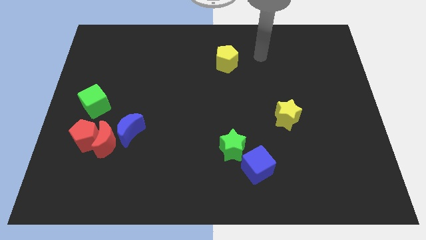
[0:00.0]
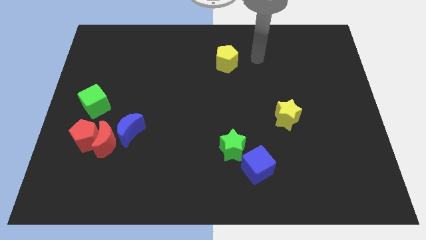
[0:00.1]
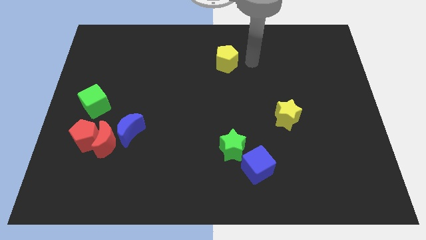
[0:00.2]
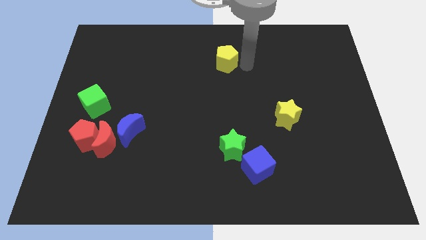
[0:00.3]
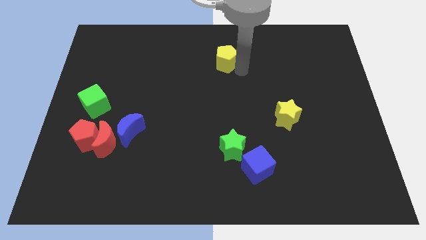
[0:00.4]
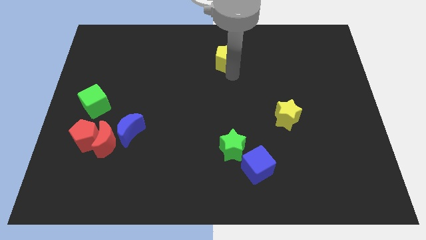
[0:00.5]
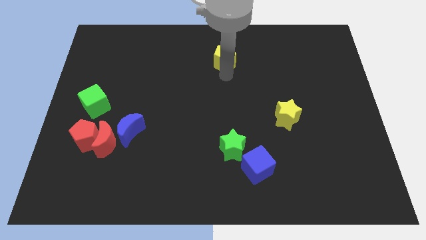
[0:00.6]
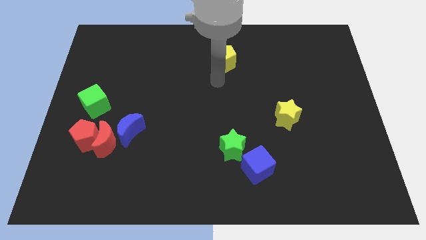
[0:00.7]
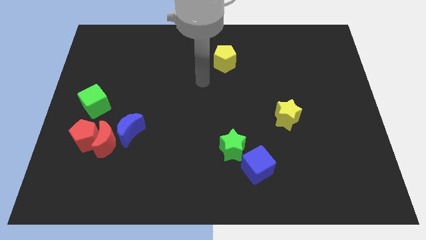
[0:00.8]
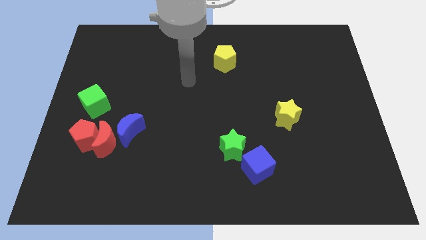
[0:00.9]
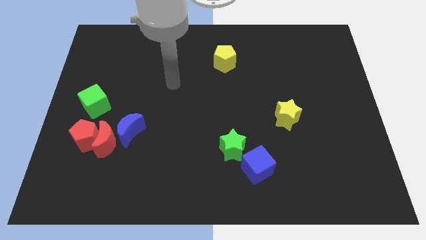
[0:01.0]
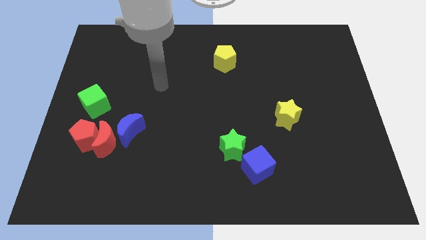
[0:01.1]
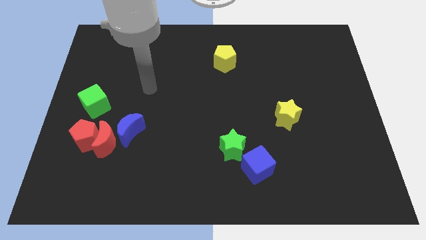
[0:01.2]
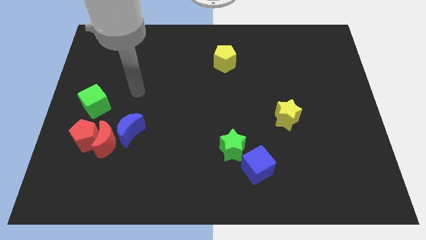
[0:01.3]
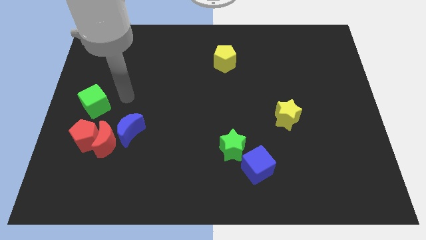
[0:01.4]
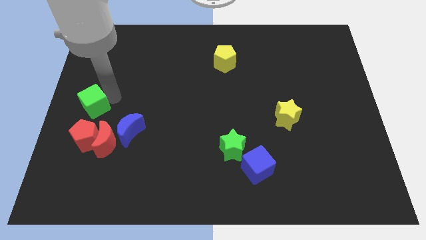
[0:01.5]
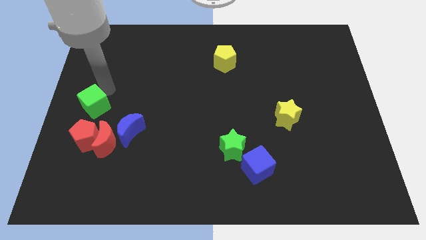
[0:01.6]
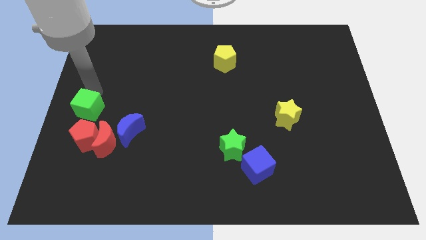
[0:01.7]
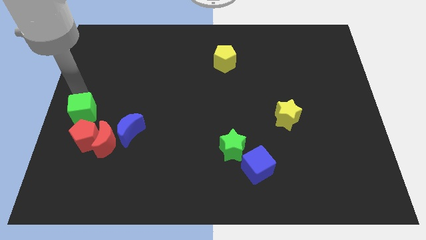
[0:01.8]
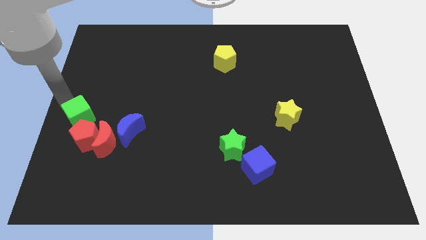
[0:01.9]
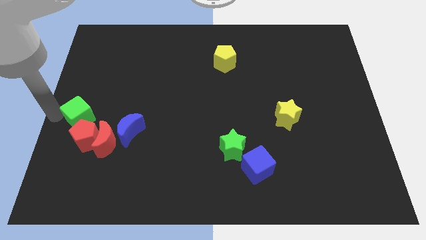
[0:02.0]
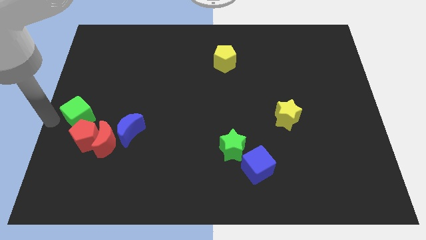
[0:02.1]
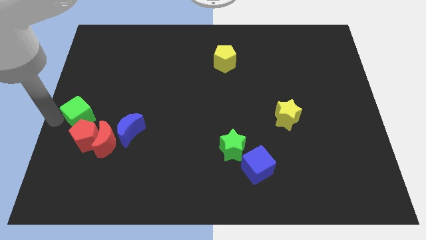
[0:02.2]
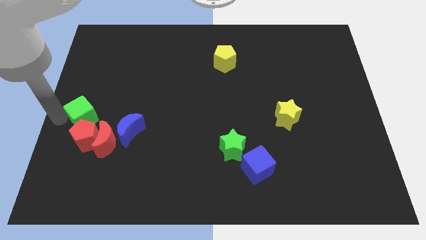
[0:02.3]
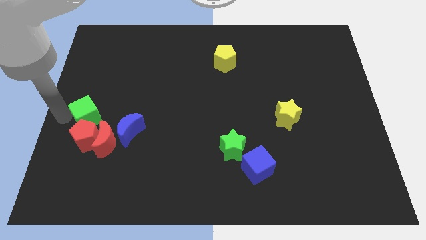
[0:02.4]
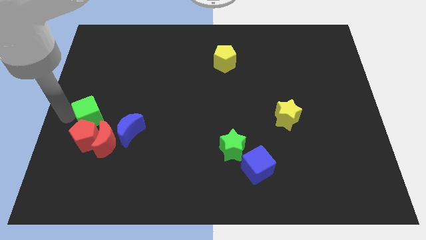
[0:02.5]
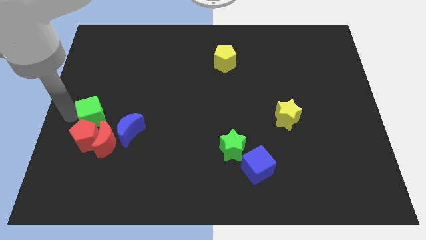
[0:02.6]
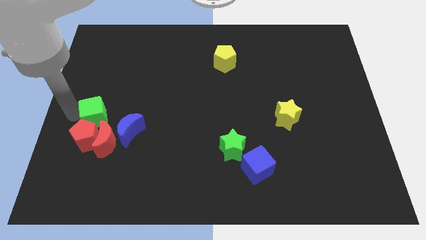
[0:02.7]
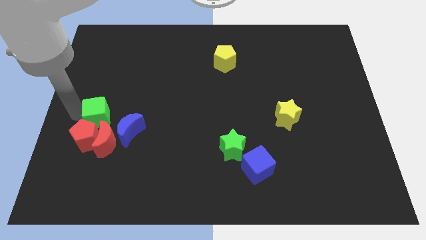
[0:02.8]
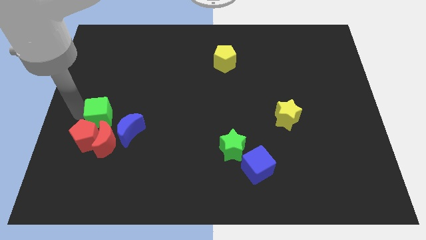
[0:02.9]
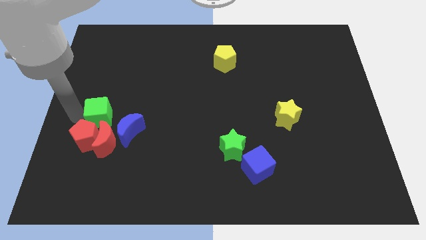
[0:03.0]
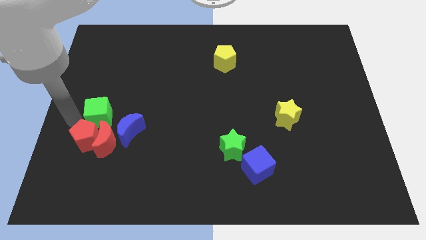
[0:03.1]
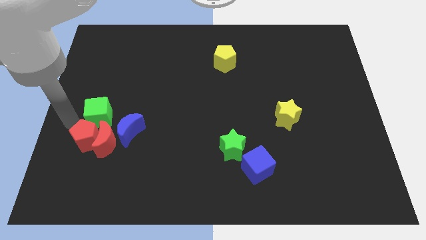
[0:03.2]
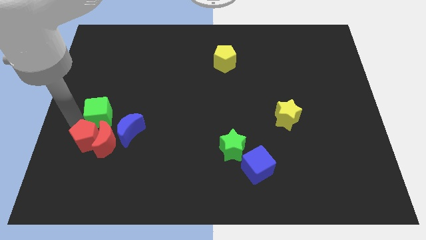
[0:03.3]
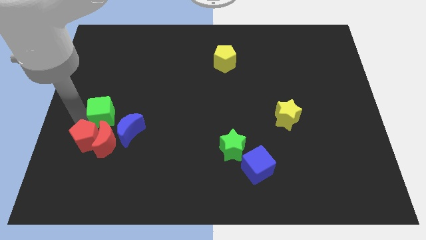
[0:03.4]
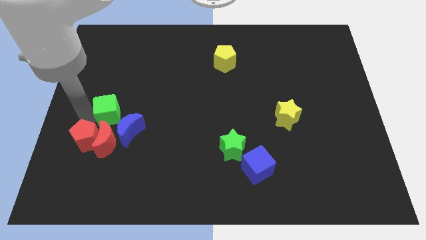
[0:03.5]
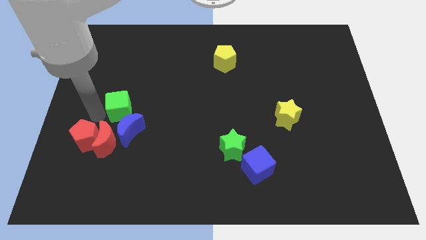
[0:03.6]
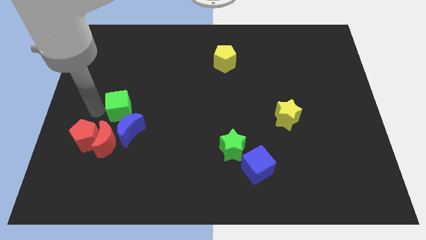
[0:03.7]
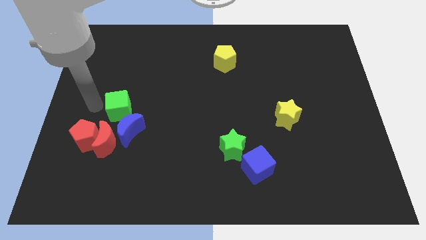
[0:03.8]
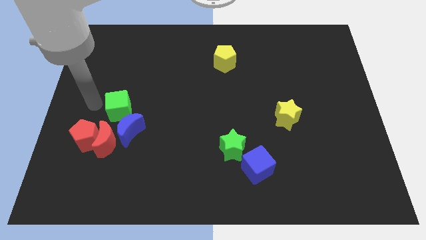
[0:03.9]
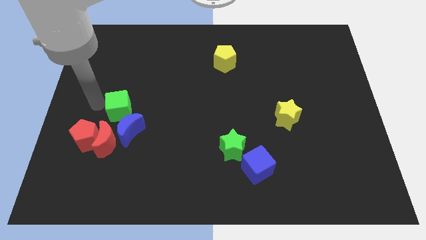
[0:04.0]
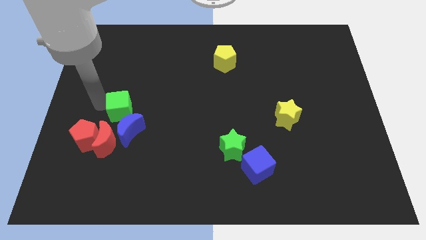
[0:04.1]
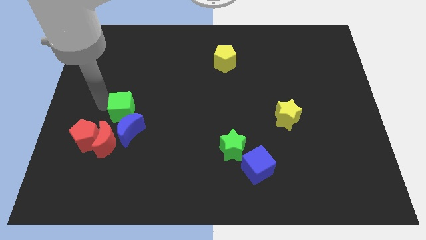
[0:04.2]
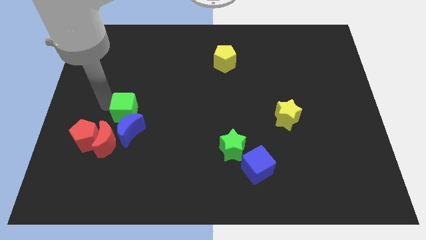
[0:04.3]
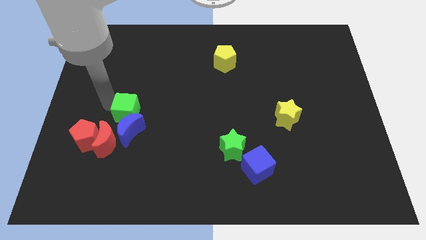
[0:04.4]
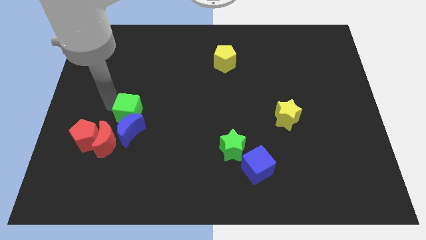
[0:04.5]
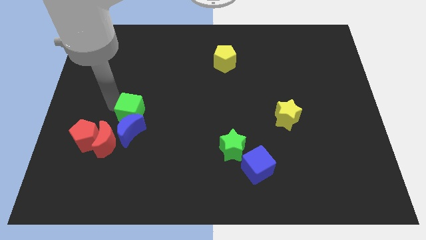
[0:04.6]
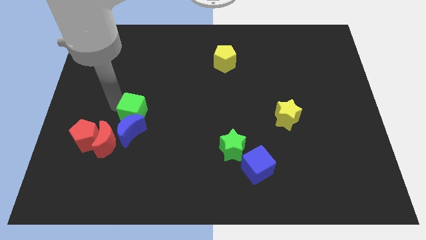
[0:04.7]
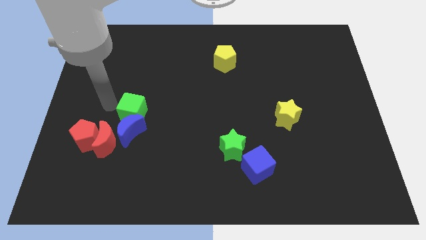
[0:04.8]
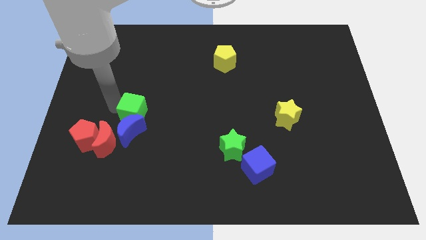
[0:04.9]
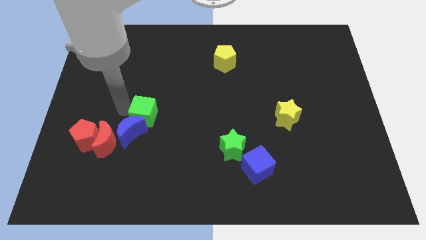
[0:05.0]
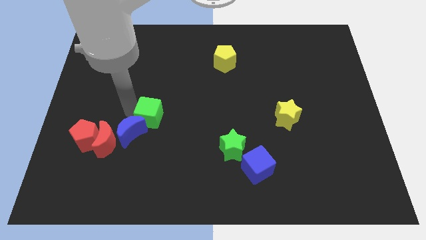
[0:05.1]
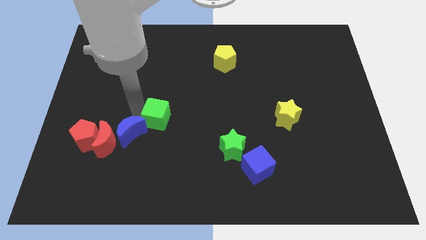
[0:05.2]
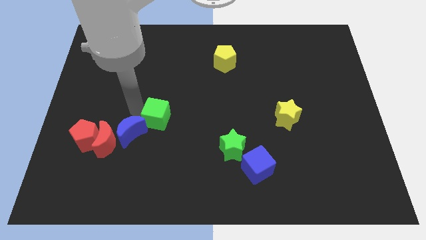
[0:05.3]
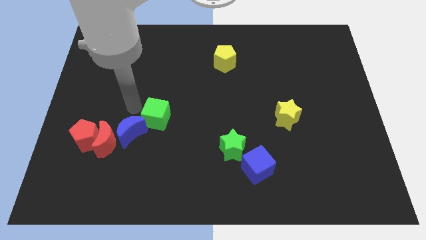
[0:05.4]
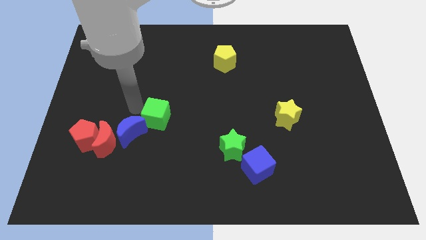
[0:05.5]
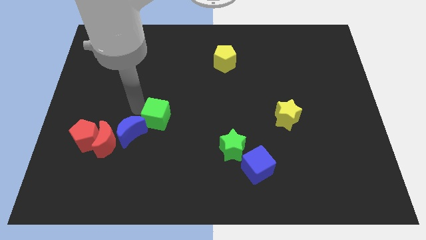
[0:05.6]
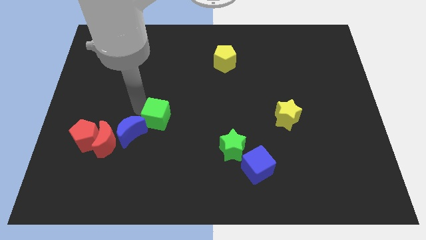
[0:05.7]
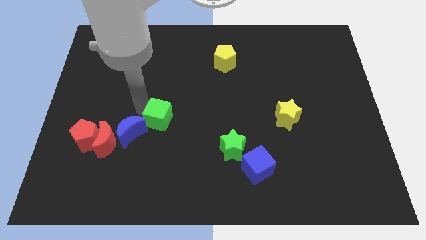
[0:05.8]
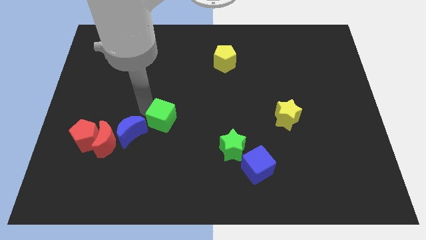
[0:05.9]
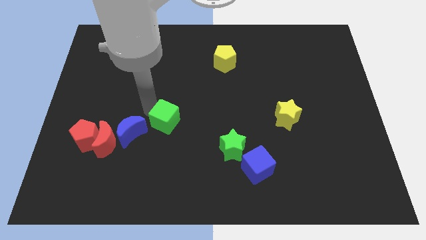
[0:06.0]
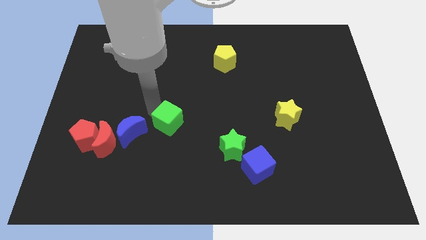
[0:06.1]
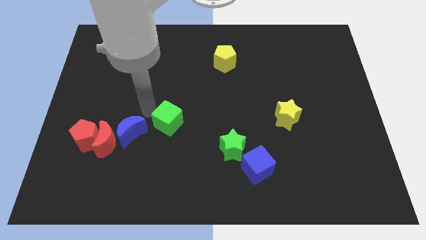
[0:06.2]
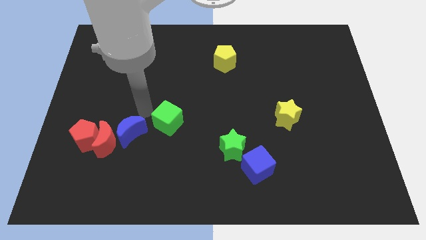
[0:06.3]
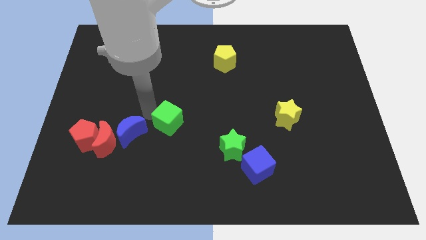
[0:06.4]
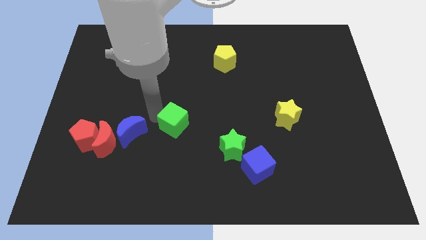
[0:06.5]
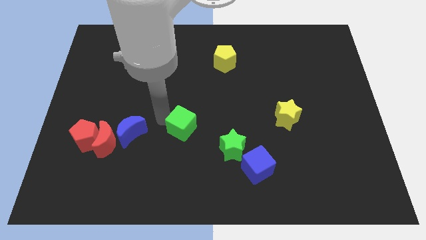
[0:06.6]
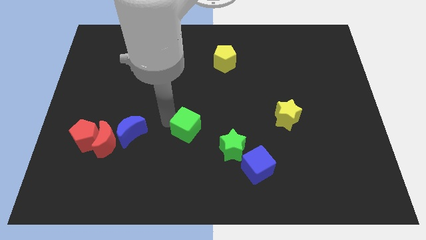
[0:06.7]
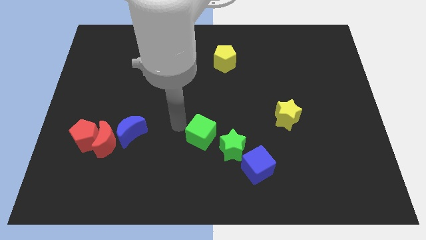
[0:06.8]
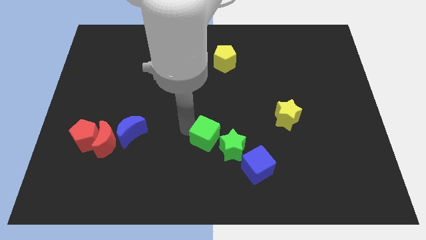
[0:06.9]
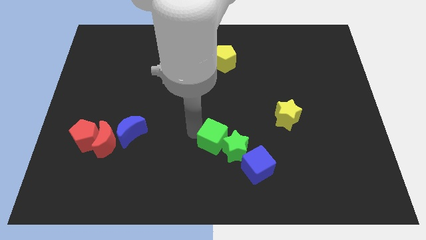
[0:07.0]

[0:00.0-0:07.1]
move the green cube next to the green star

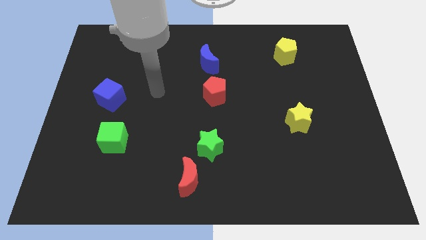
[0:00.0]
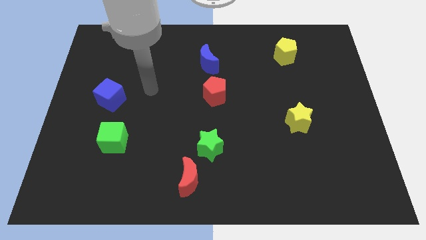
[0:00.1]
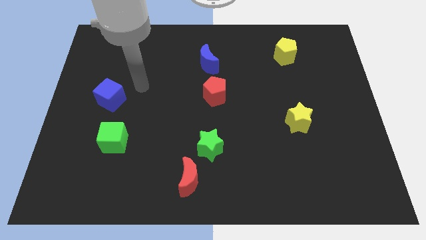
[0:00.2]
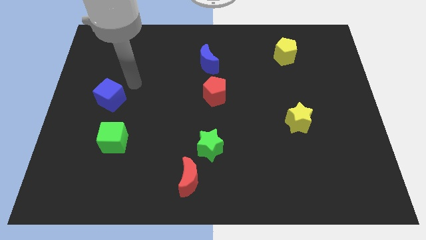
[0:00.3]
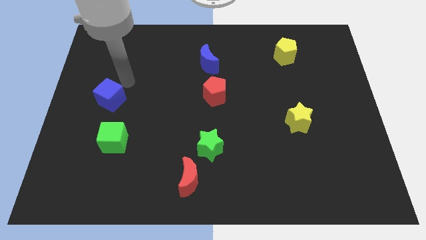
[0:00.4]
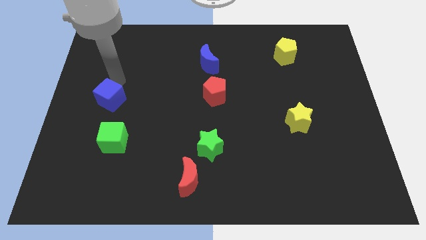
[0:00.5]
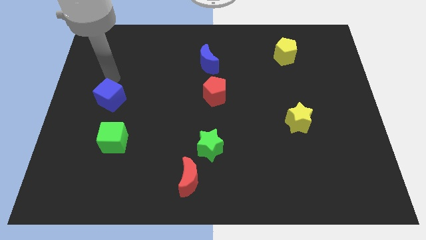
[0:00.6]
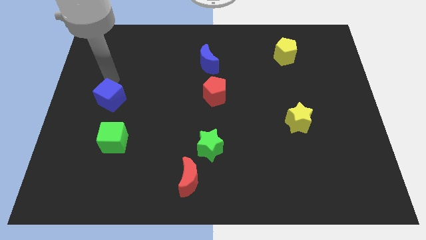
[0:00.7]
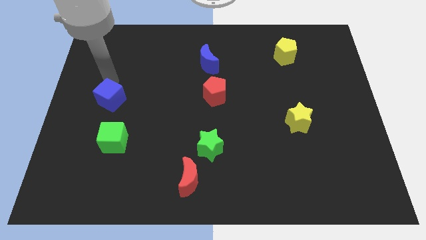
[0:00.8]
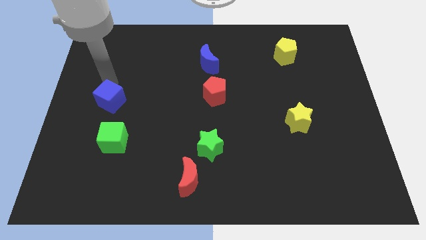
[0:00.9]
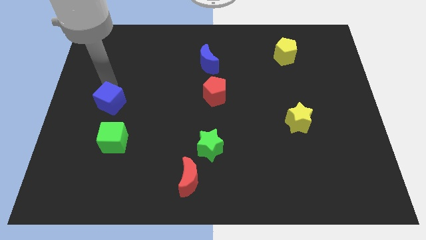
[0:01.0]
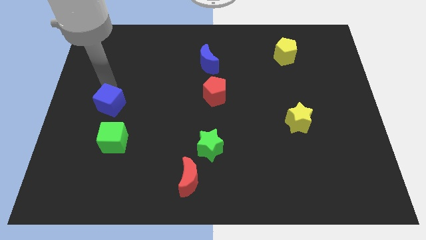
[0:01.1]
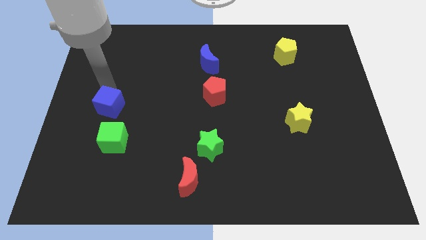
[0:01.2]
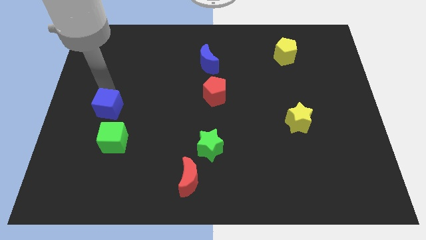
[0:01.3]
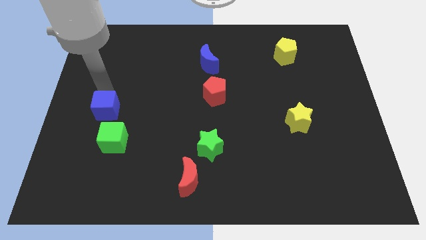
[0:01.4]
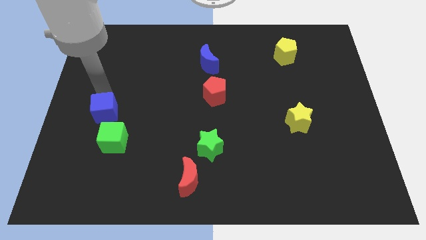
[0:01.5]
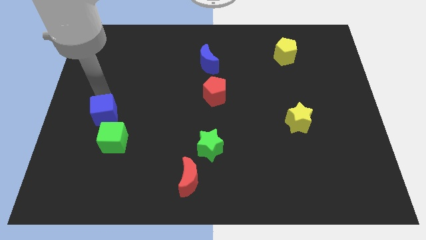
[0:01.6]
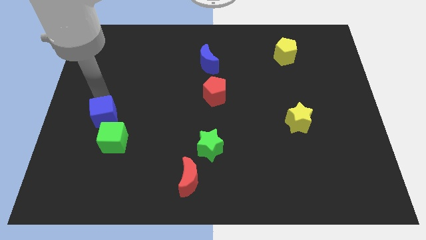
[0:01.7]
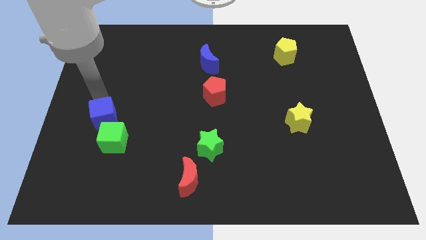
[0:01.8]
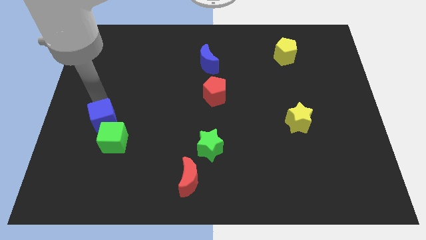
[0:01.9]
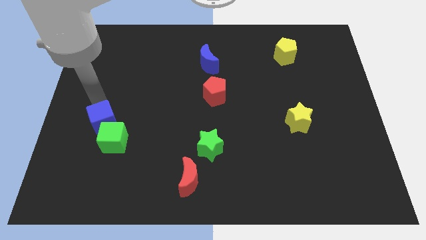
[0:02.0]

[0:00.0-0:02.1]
move the blue cube close to the green cube
